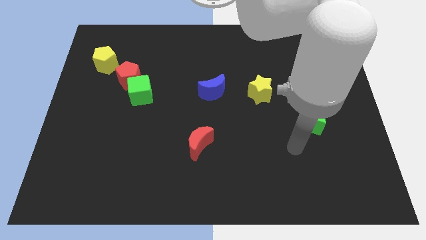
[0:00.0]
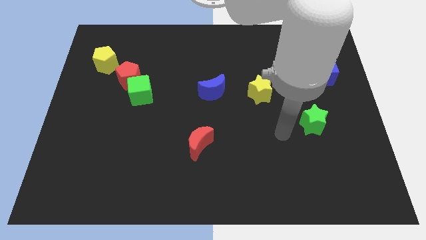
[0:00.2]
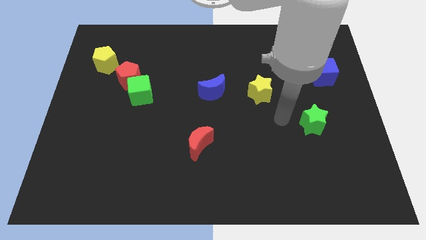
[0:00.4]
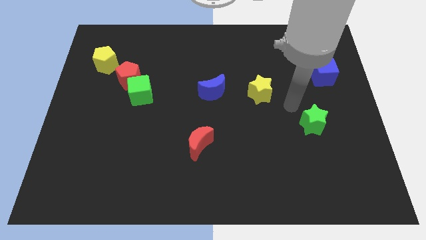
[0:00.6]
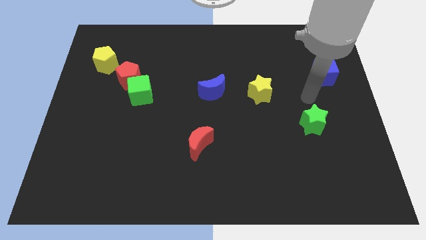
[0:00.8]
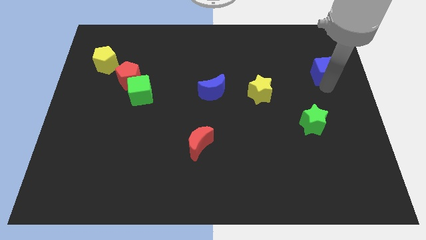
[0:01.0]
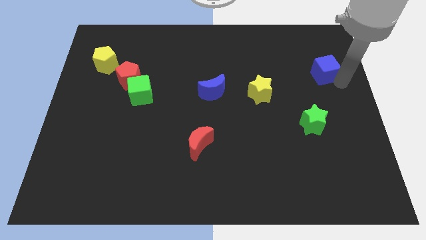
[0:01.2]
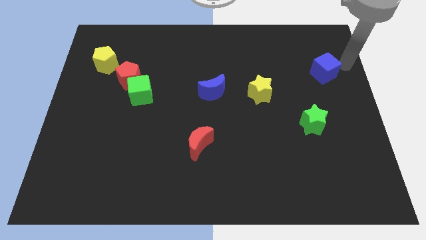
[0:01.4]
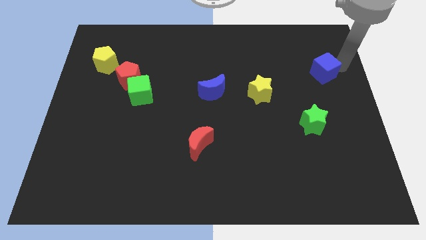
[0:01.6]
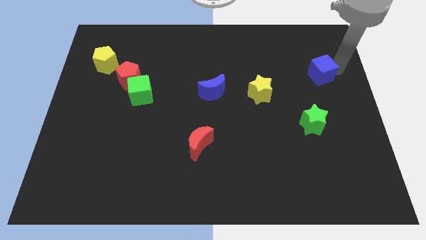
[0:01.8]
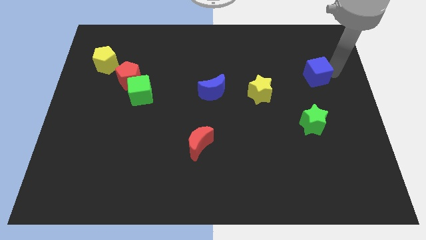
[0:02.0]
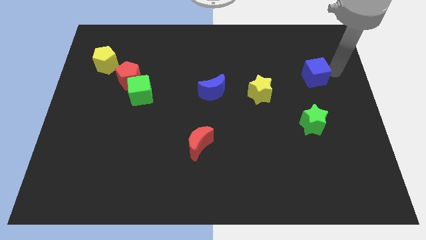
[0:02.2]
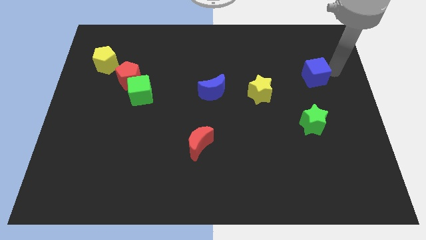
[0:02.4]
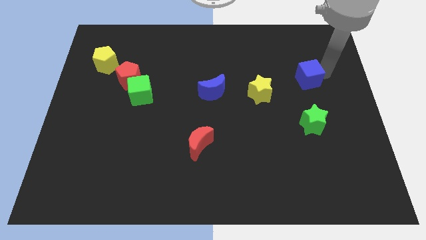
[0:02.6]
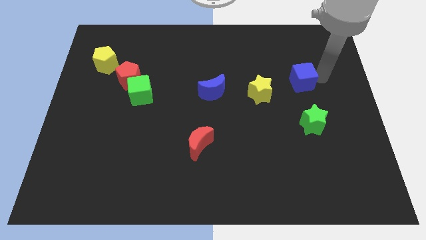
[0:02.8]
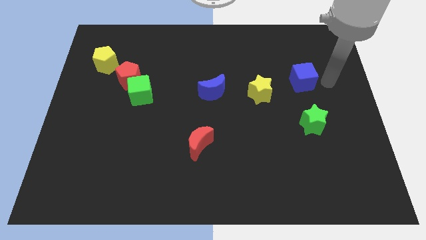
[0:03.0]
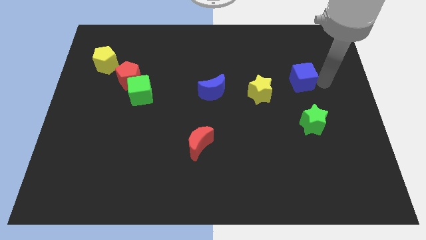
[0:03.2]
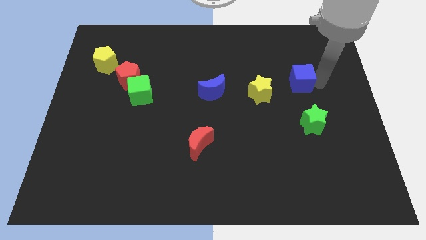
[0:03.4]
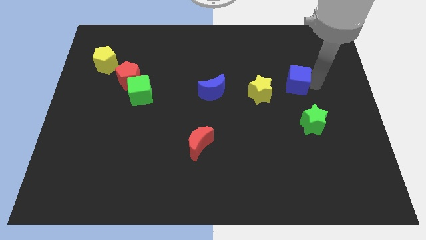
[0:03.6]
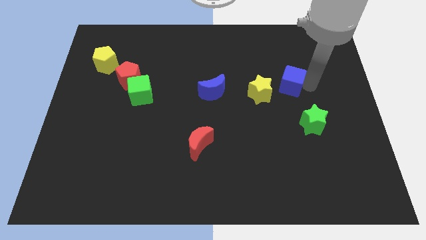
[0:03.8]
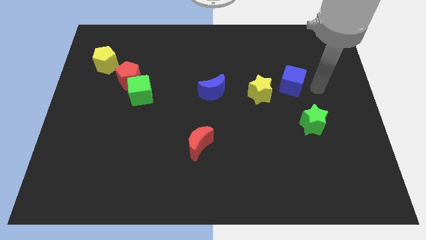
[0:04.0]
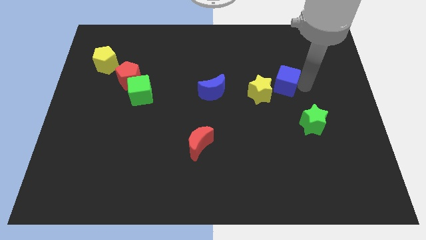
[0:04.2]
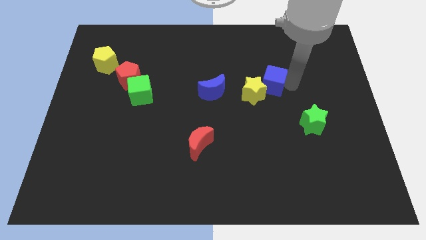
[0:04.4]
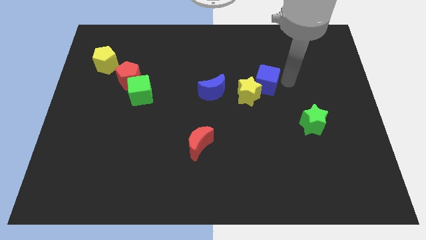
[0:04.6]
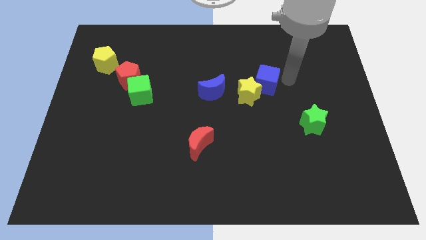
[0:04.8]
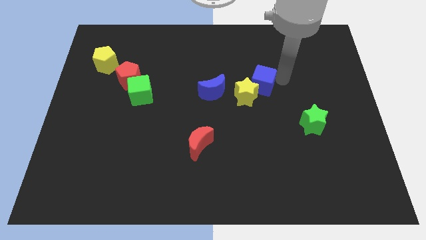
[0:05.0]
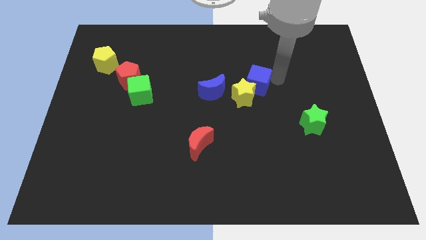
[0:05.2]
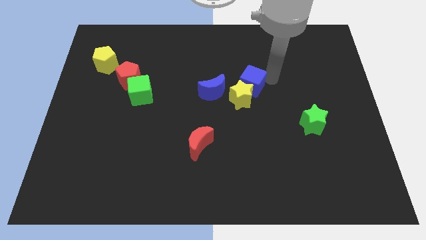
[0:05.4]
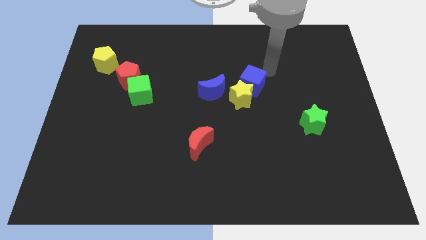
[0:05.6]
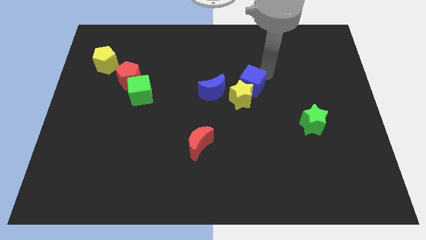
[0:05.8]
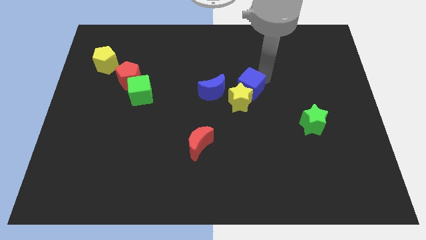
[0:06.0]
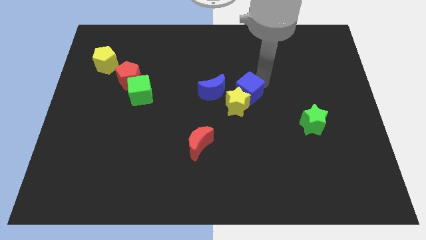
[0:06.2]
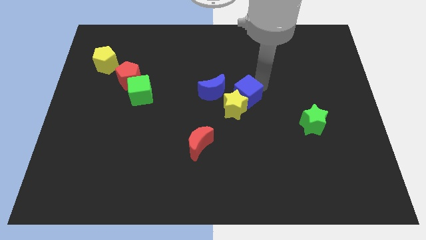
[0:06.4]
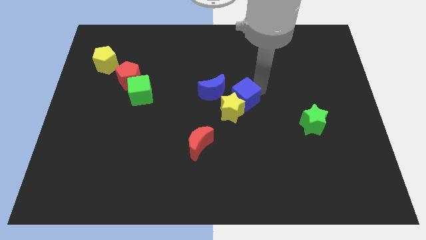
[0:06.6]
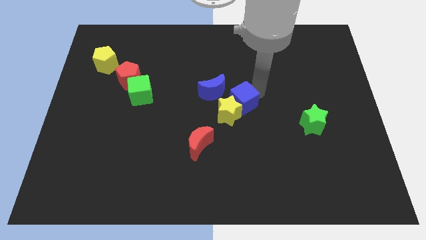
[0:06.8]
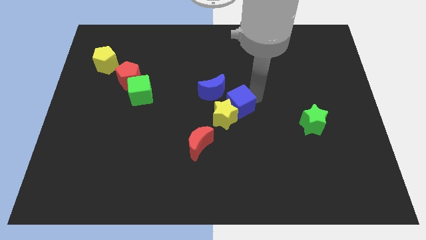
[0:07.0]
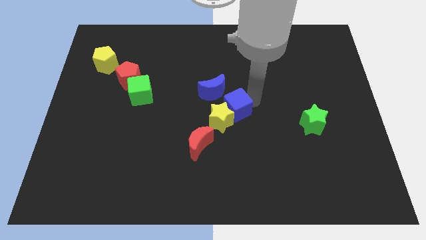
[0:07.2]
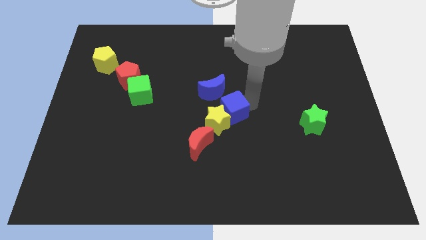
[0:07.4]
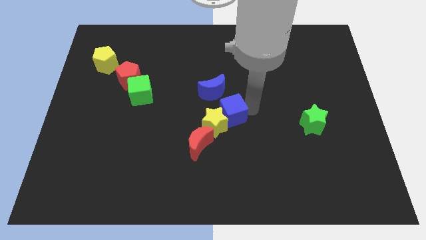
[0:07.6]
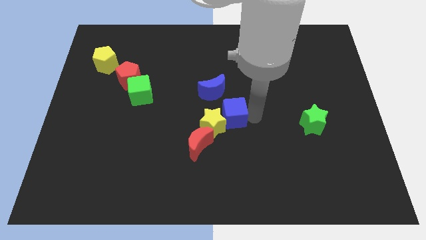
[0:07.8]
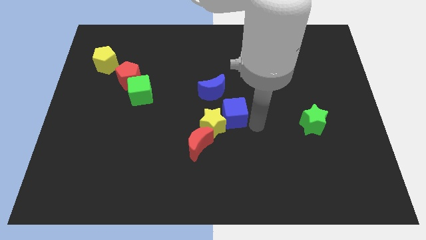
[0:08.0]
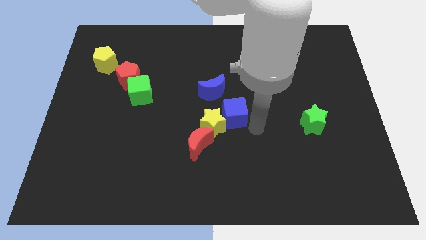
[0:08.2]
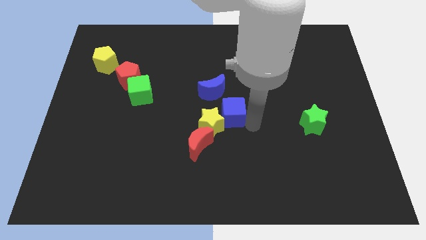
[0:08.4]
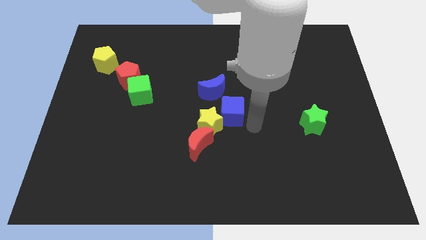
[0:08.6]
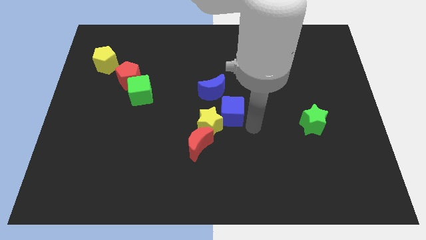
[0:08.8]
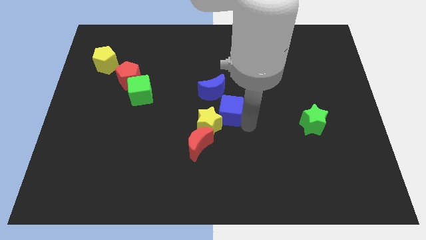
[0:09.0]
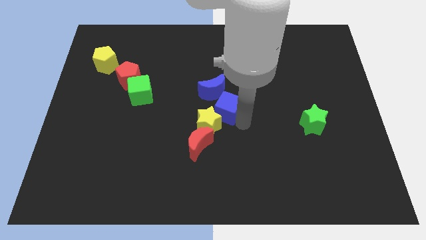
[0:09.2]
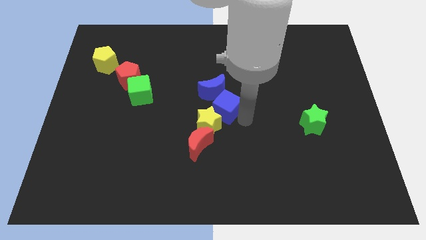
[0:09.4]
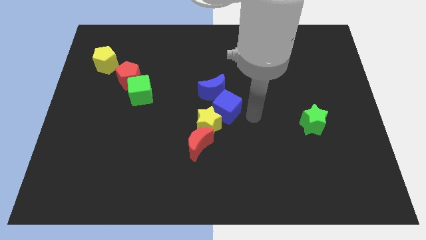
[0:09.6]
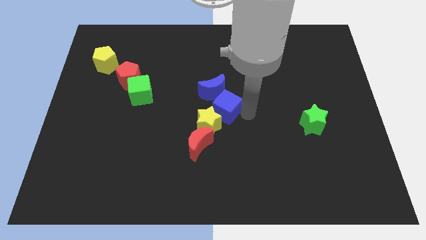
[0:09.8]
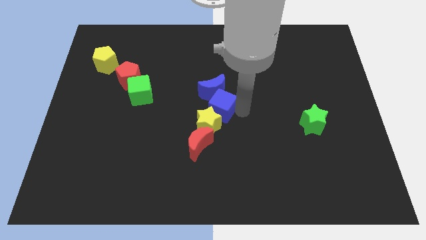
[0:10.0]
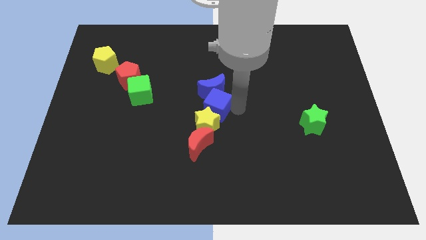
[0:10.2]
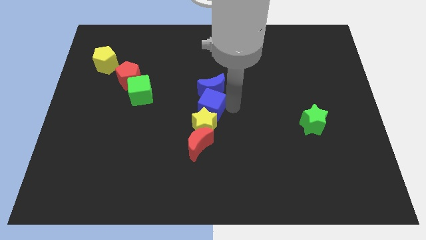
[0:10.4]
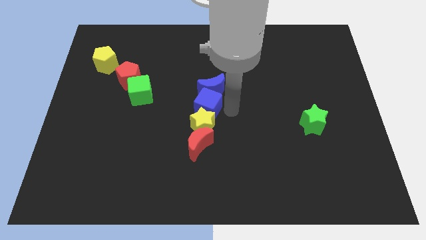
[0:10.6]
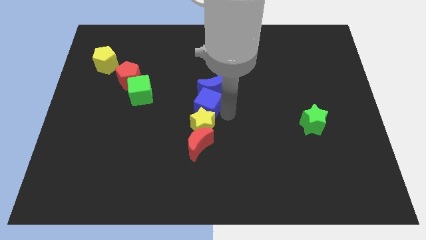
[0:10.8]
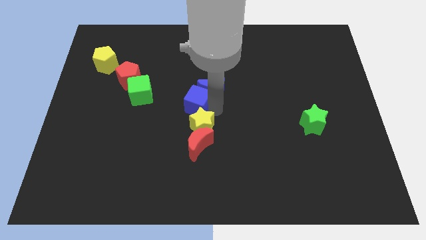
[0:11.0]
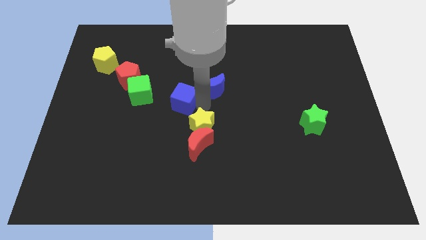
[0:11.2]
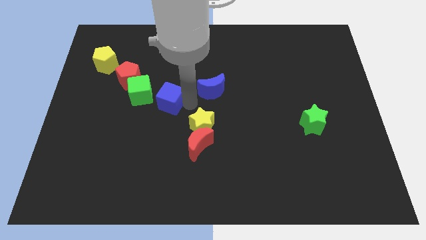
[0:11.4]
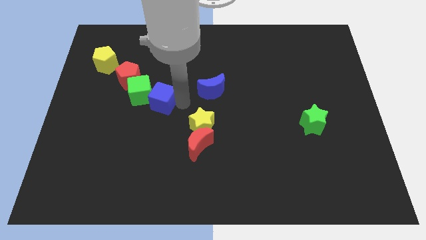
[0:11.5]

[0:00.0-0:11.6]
push the blue cube diagonally down and to the right of the red pentagon
